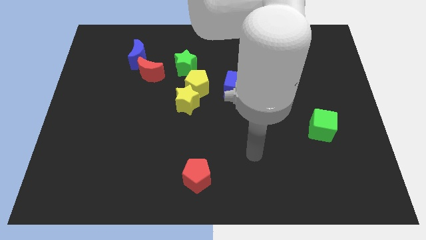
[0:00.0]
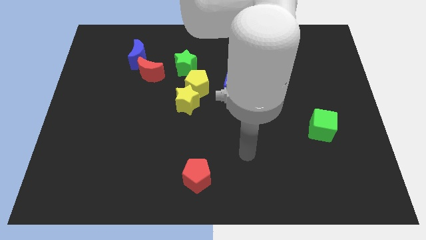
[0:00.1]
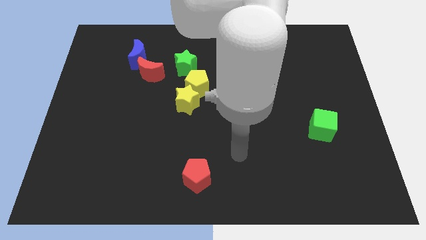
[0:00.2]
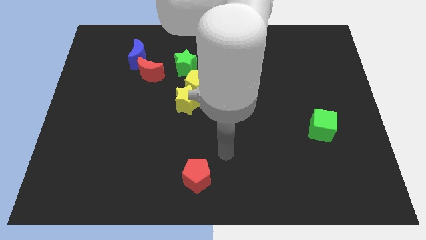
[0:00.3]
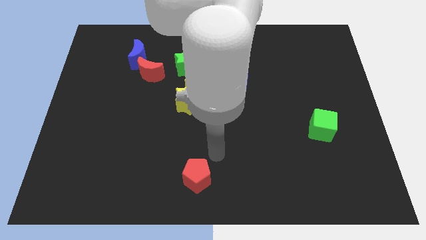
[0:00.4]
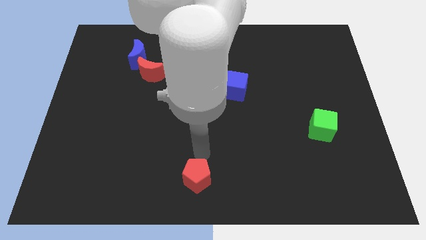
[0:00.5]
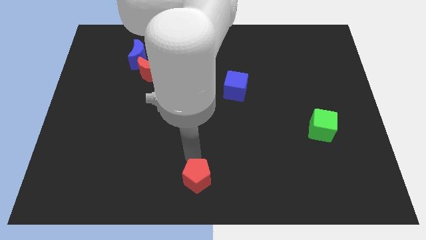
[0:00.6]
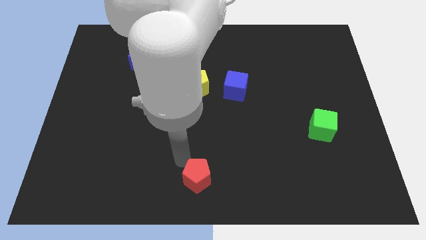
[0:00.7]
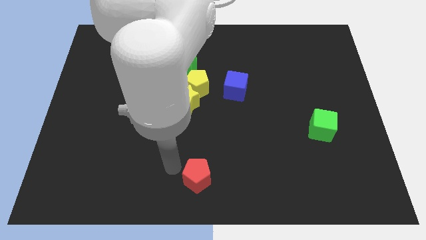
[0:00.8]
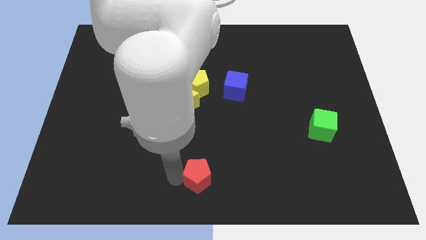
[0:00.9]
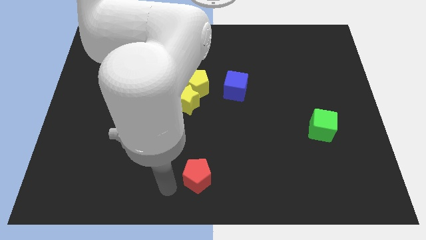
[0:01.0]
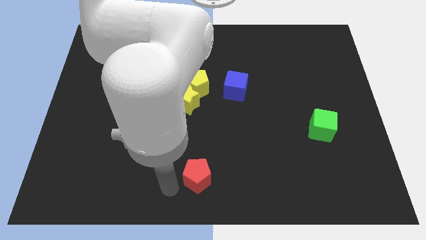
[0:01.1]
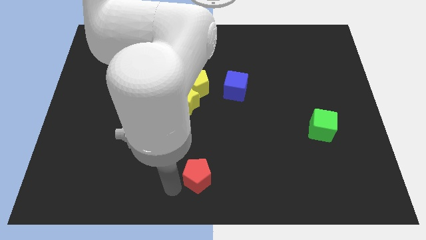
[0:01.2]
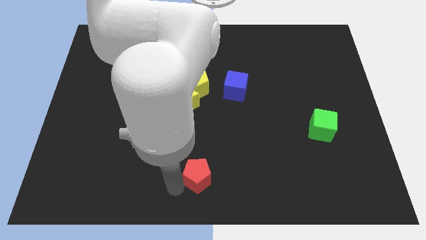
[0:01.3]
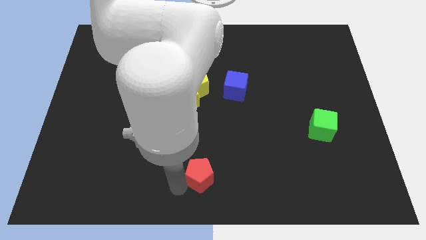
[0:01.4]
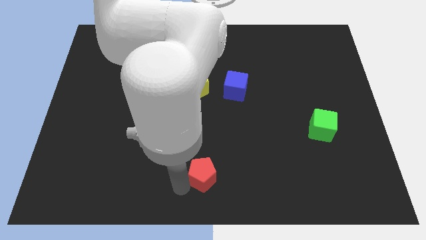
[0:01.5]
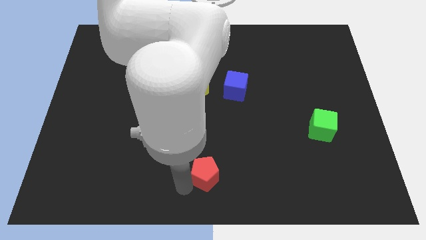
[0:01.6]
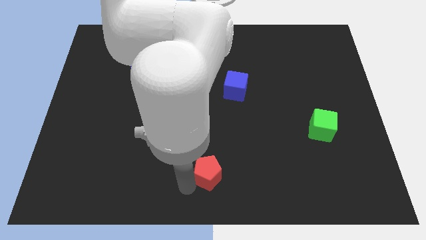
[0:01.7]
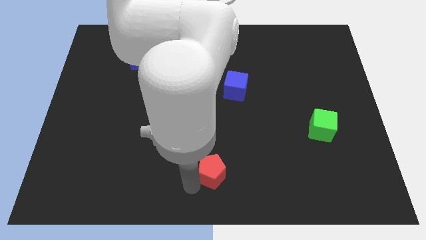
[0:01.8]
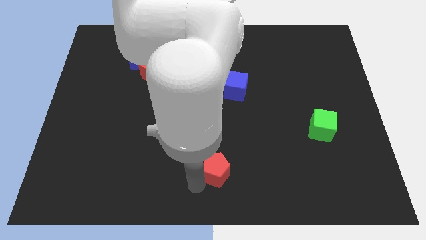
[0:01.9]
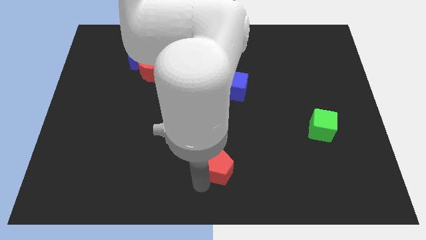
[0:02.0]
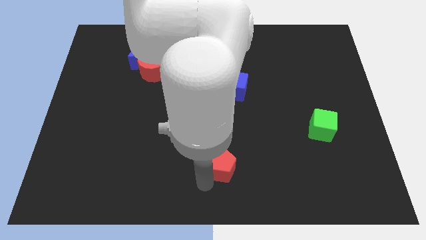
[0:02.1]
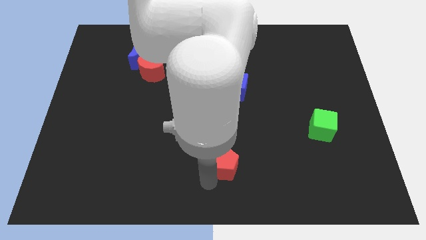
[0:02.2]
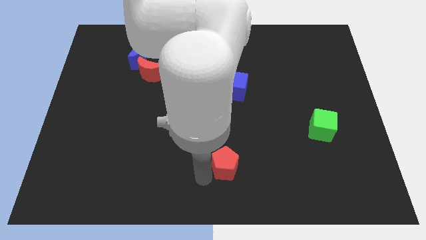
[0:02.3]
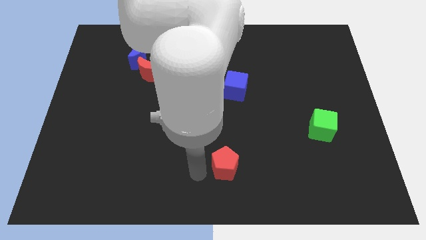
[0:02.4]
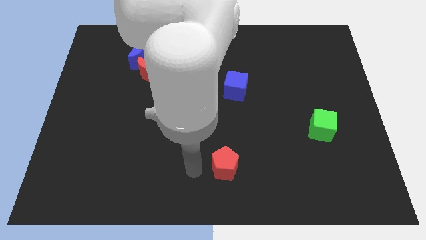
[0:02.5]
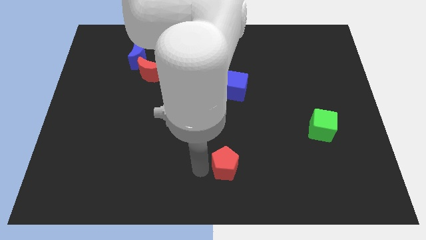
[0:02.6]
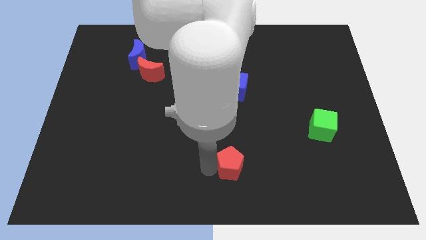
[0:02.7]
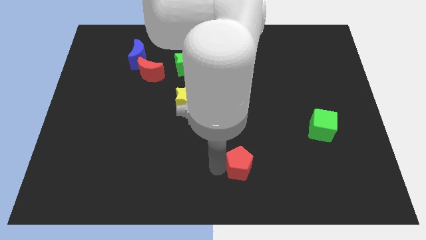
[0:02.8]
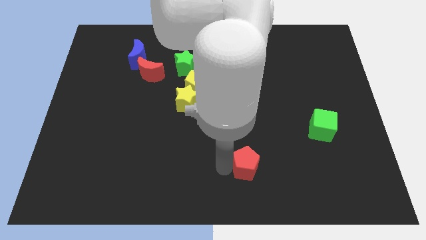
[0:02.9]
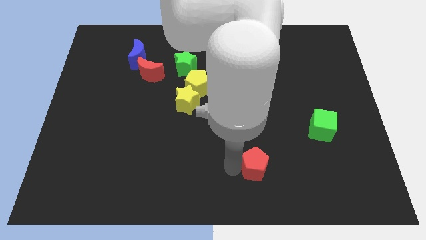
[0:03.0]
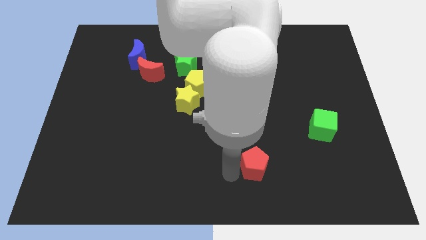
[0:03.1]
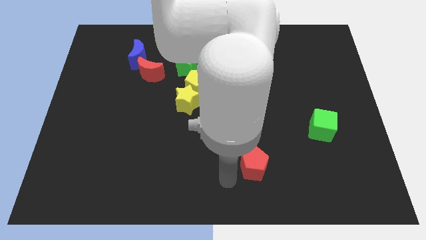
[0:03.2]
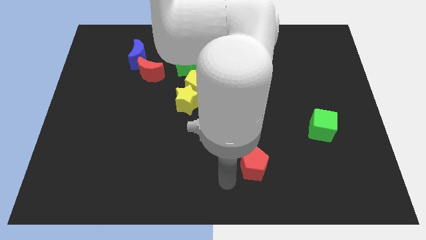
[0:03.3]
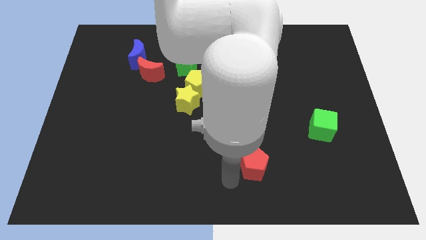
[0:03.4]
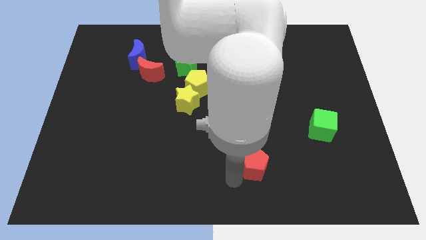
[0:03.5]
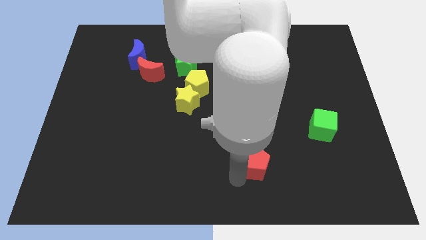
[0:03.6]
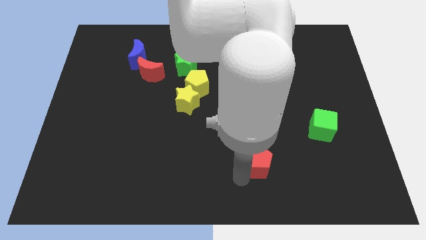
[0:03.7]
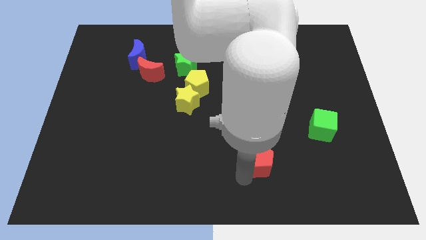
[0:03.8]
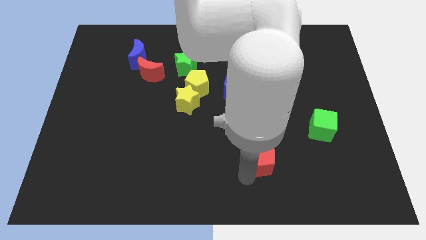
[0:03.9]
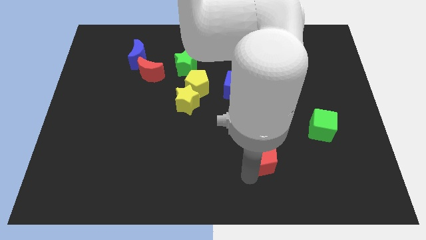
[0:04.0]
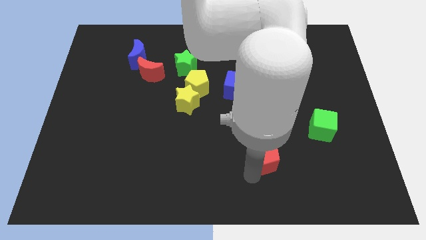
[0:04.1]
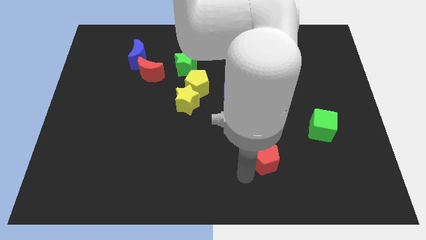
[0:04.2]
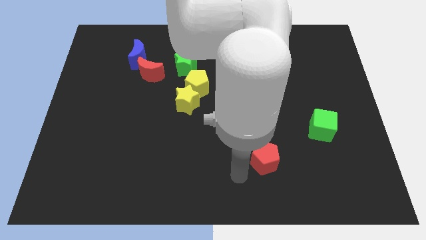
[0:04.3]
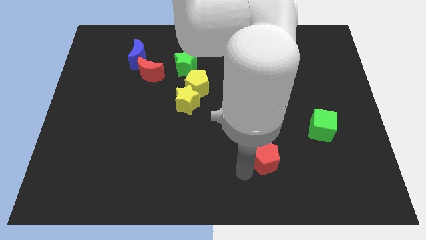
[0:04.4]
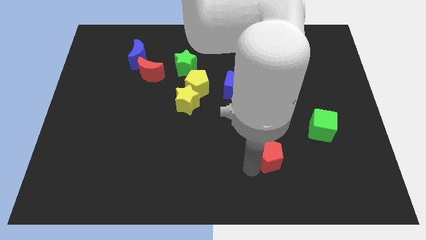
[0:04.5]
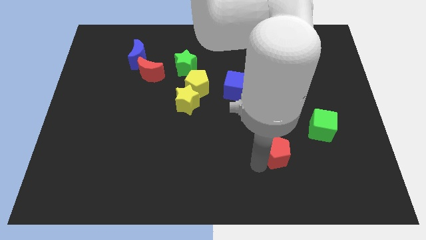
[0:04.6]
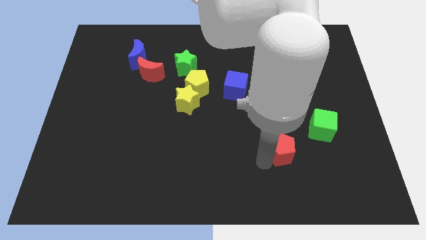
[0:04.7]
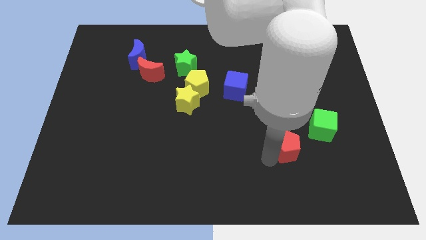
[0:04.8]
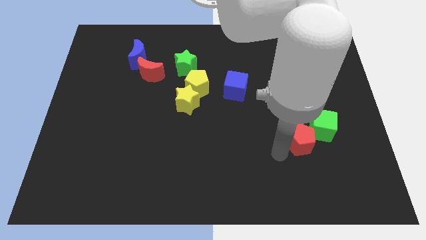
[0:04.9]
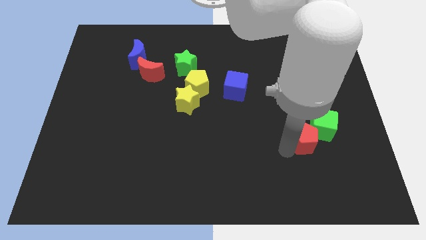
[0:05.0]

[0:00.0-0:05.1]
move the red pentagon close to the green cube

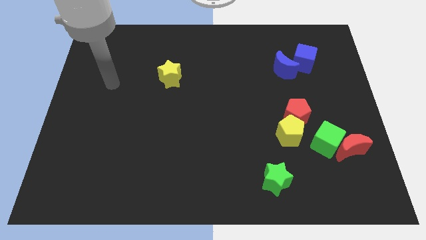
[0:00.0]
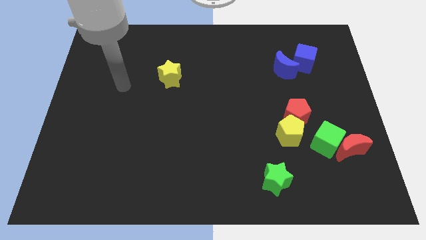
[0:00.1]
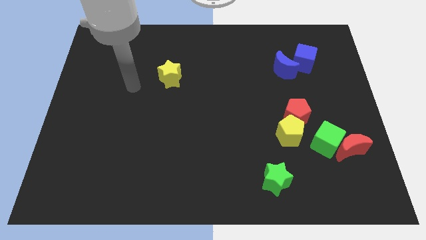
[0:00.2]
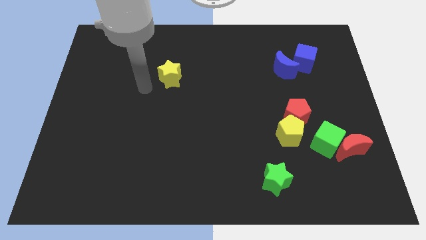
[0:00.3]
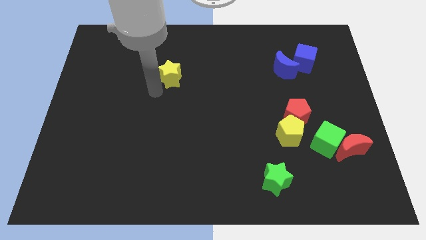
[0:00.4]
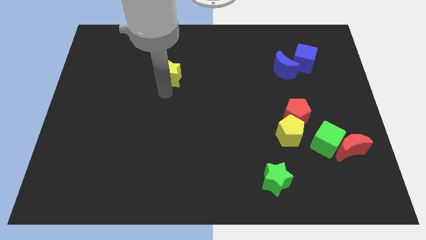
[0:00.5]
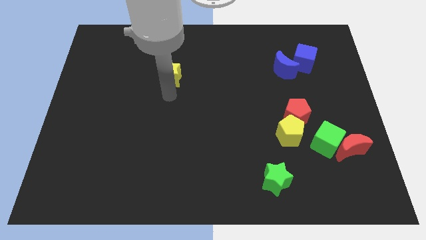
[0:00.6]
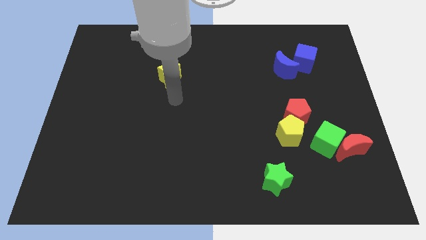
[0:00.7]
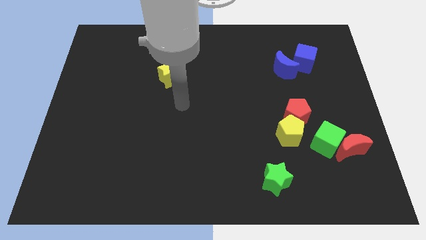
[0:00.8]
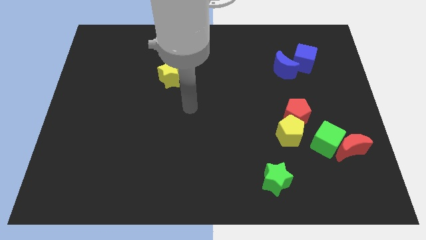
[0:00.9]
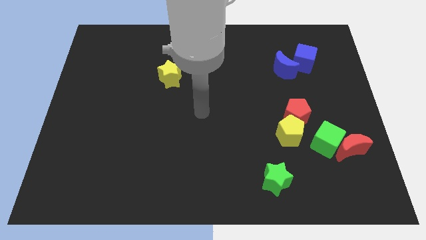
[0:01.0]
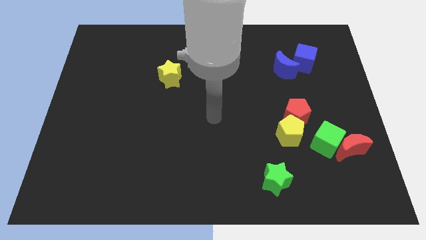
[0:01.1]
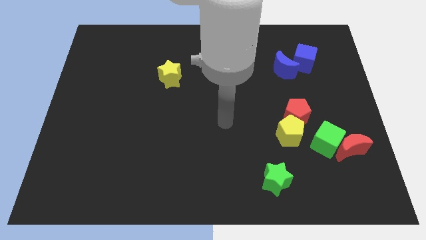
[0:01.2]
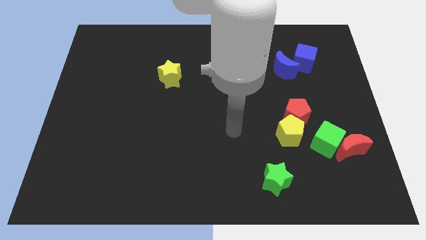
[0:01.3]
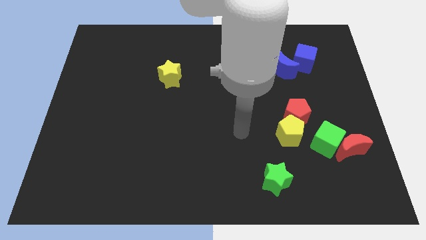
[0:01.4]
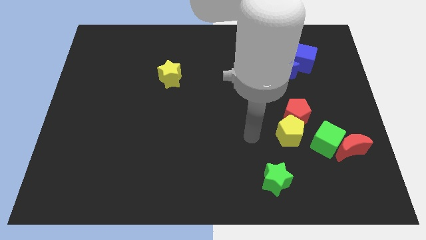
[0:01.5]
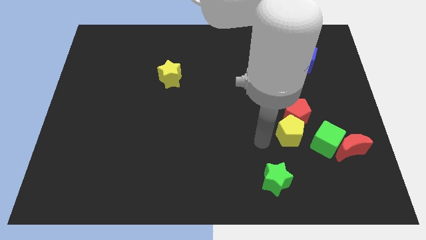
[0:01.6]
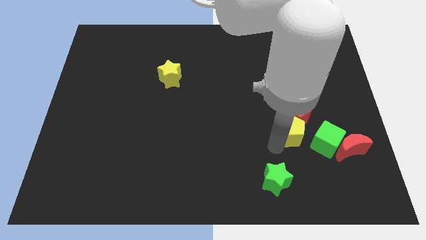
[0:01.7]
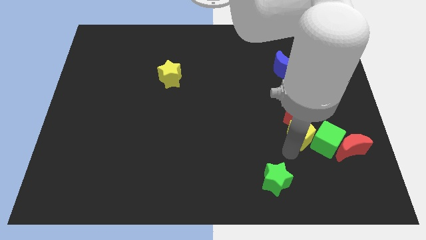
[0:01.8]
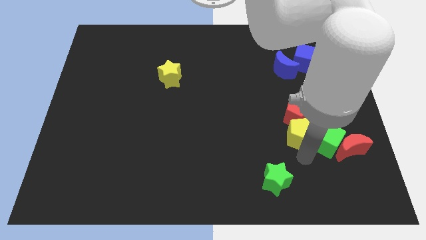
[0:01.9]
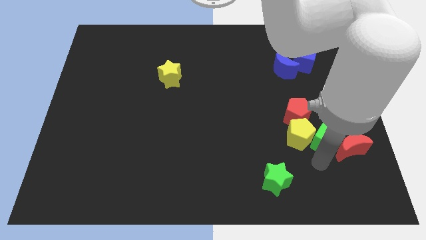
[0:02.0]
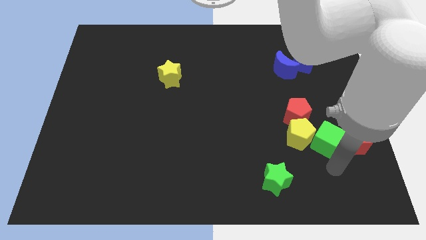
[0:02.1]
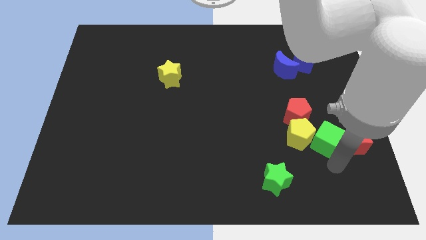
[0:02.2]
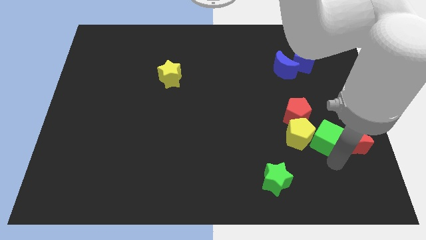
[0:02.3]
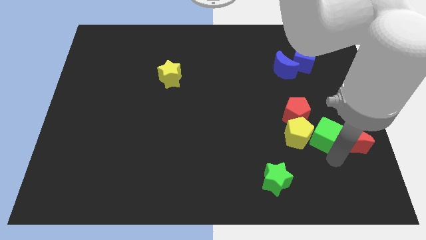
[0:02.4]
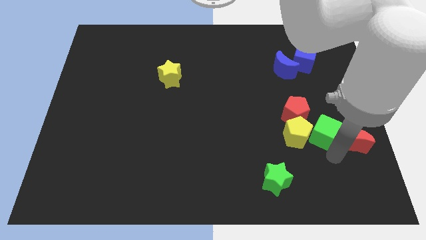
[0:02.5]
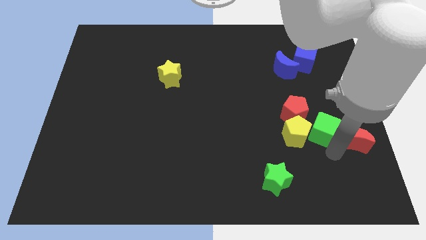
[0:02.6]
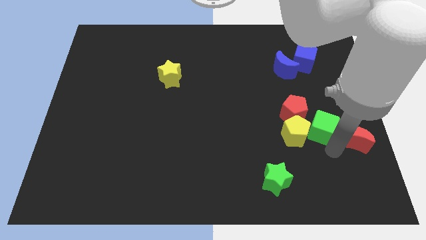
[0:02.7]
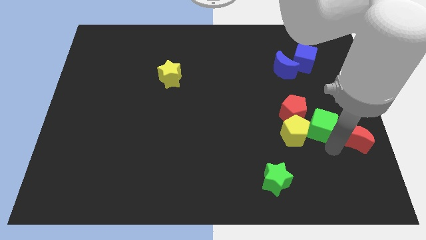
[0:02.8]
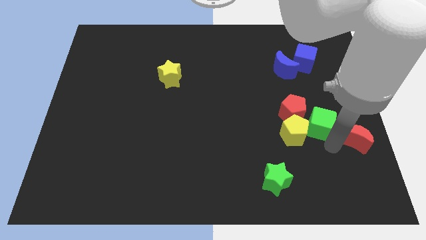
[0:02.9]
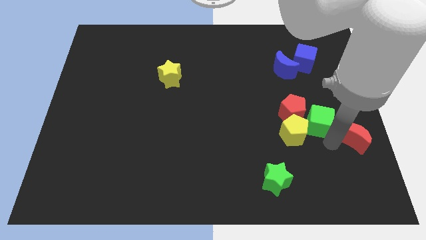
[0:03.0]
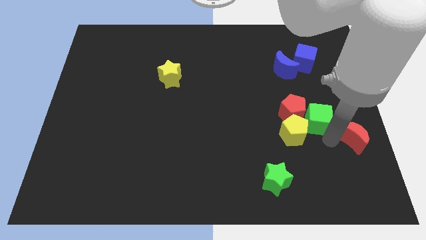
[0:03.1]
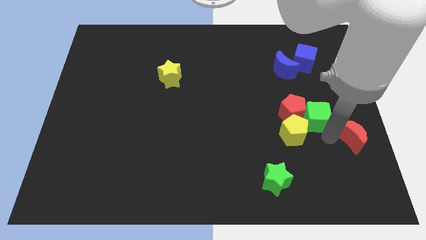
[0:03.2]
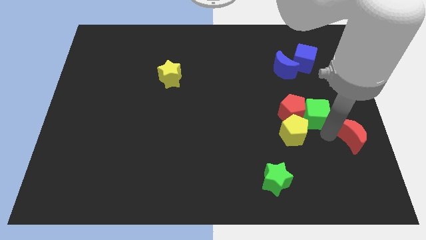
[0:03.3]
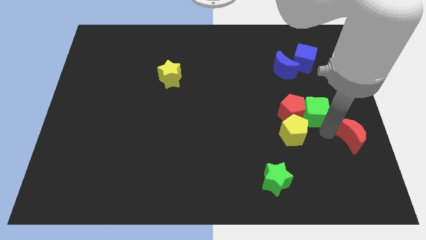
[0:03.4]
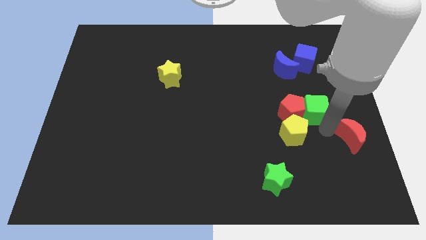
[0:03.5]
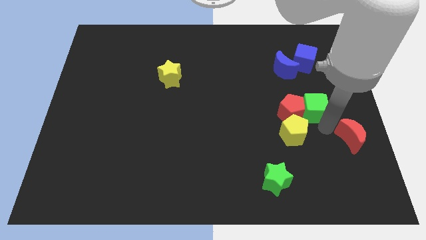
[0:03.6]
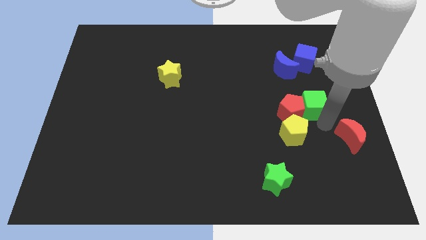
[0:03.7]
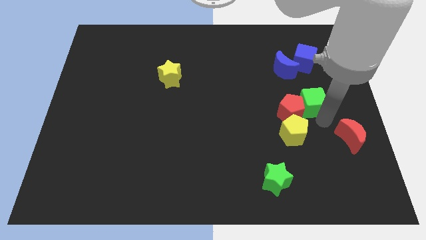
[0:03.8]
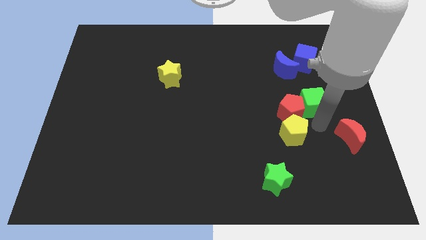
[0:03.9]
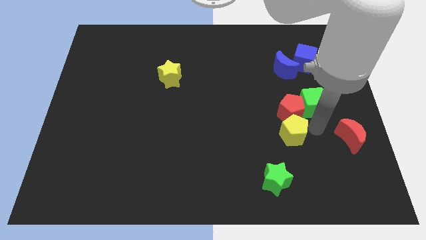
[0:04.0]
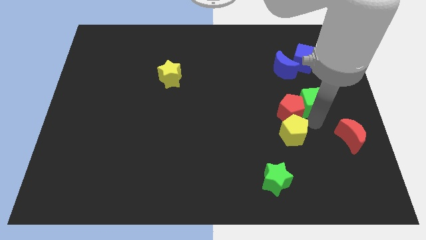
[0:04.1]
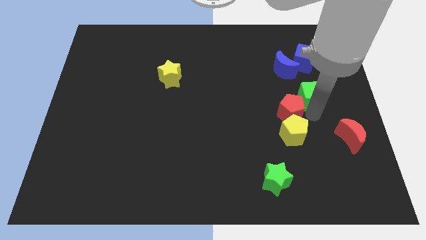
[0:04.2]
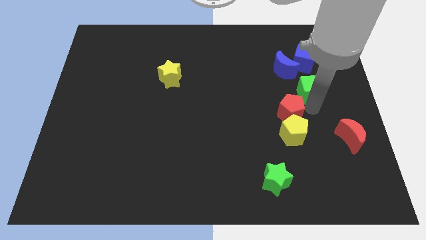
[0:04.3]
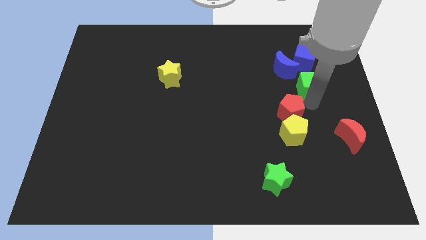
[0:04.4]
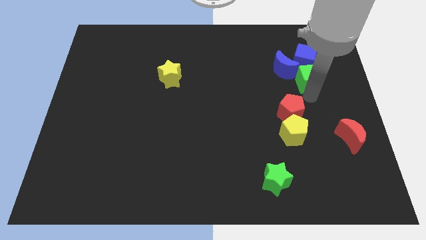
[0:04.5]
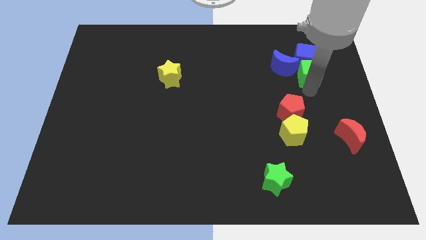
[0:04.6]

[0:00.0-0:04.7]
move the green cube next to the blue cube
